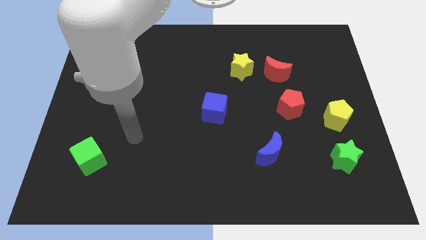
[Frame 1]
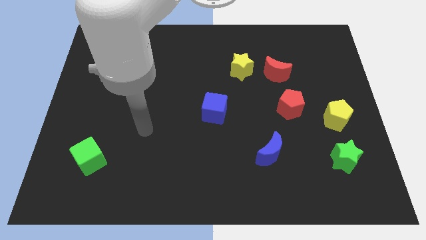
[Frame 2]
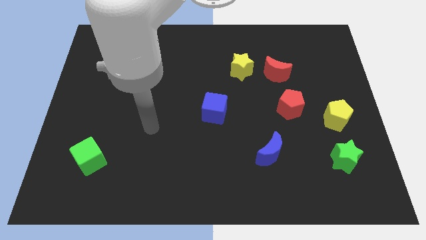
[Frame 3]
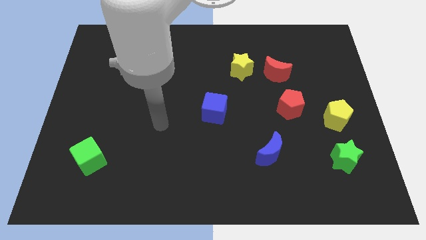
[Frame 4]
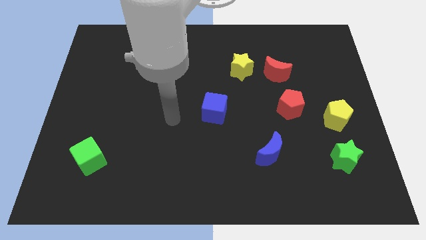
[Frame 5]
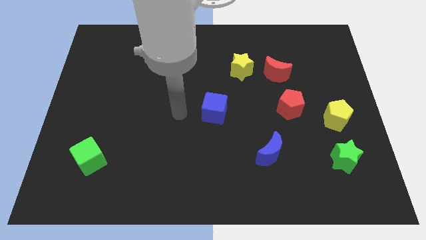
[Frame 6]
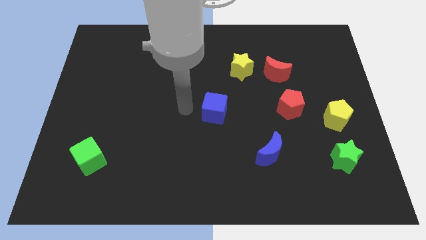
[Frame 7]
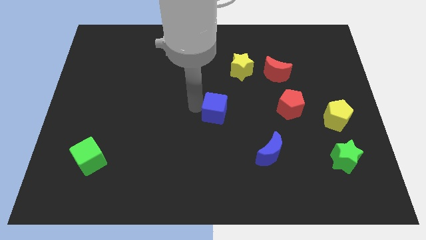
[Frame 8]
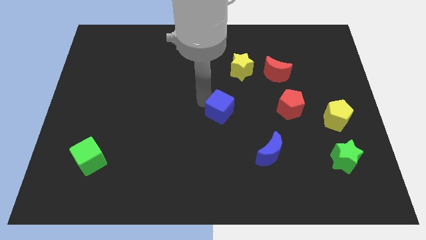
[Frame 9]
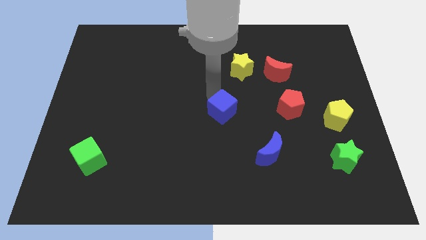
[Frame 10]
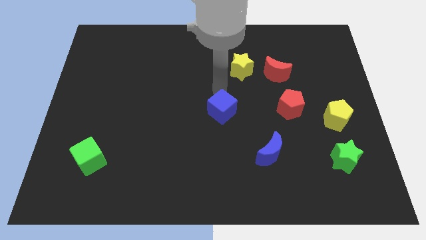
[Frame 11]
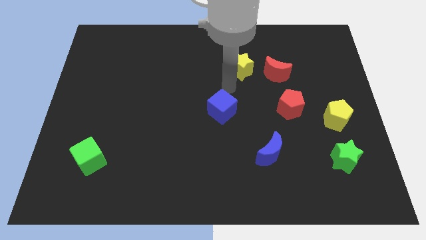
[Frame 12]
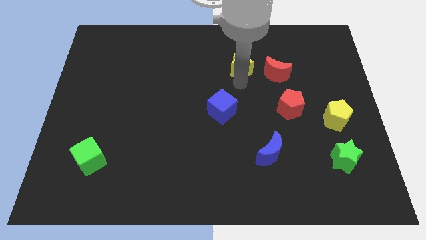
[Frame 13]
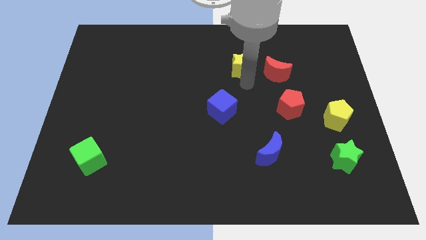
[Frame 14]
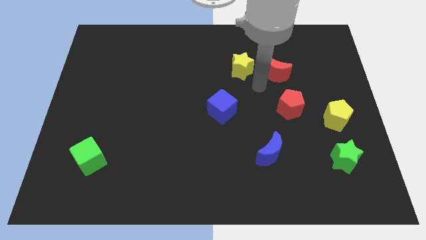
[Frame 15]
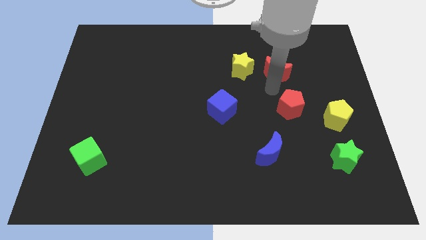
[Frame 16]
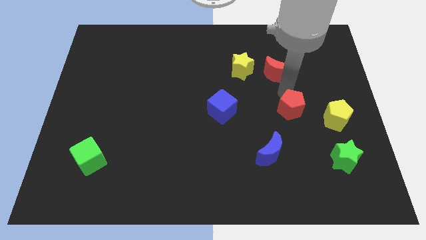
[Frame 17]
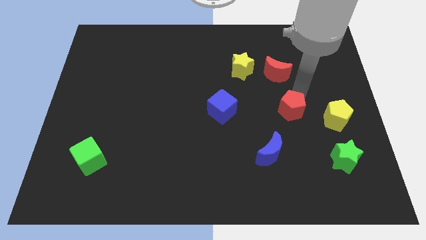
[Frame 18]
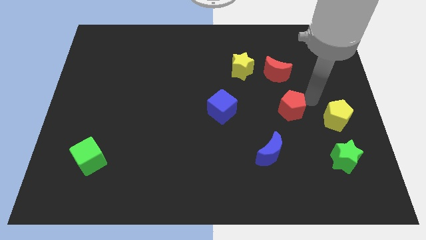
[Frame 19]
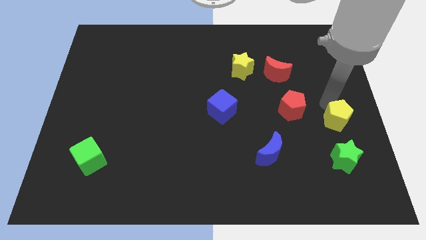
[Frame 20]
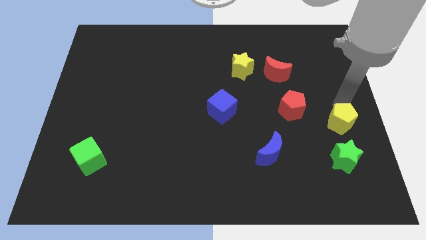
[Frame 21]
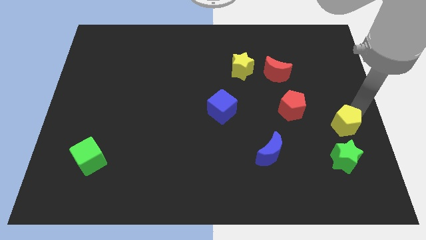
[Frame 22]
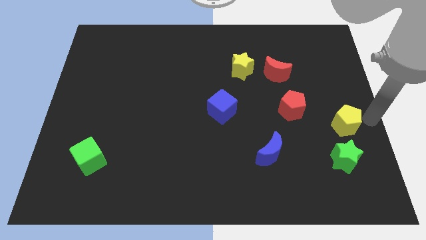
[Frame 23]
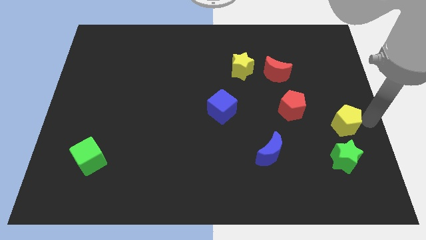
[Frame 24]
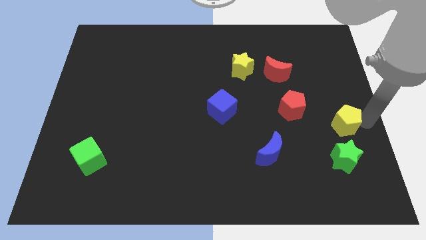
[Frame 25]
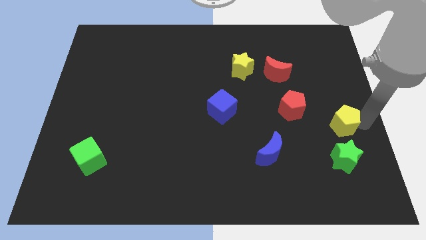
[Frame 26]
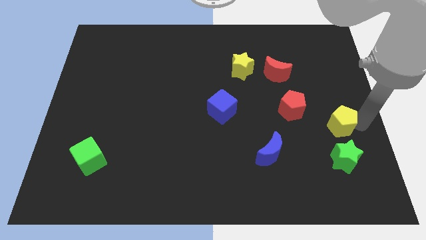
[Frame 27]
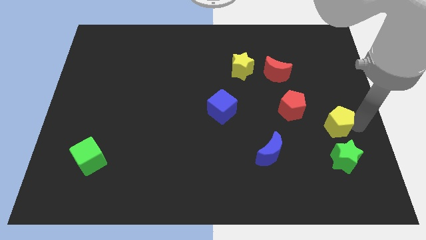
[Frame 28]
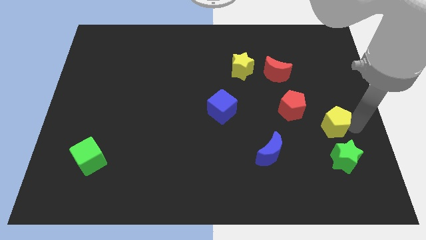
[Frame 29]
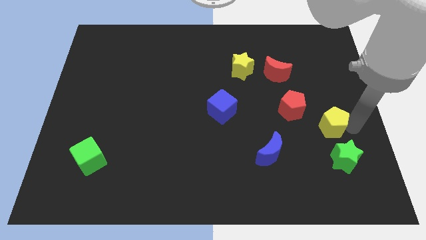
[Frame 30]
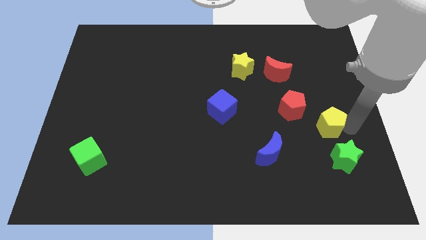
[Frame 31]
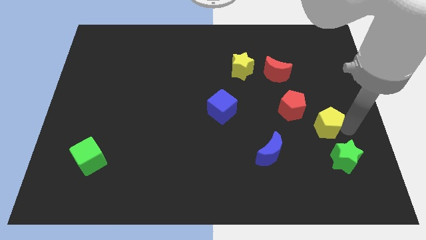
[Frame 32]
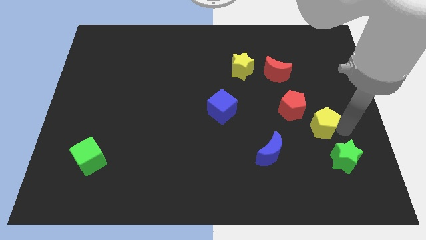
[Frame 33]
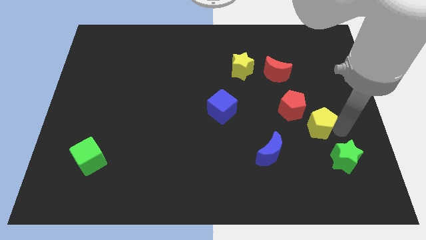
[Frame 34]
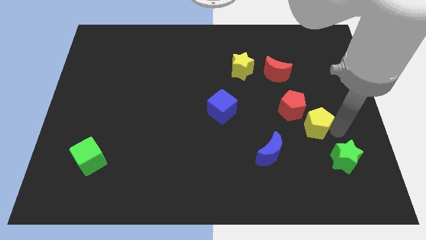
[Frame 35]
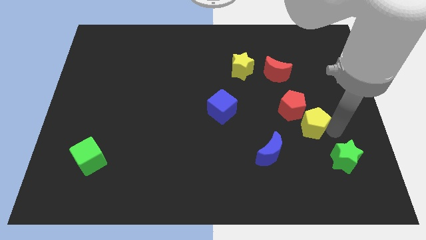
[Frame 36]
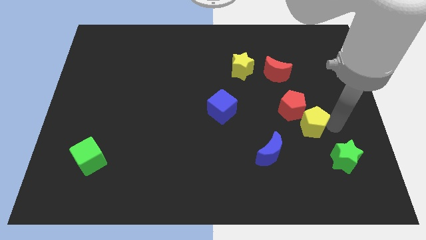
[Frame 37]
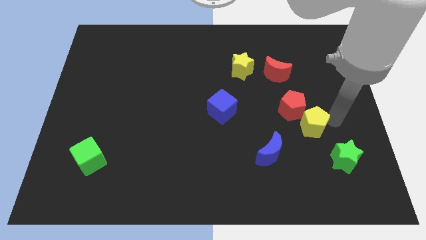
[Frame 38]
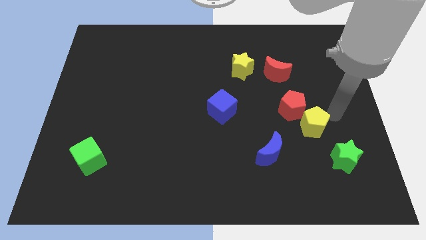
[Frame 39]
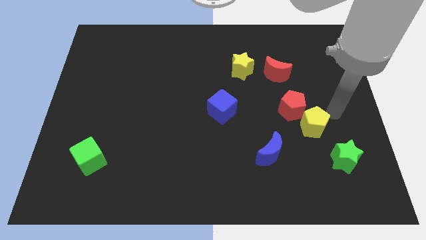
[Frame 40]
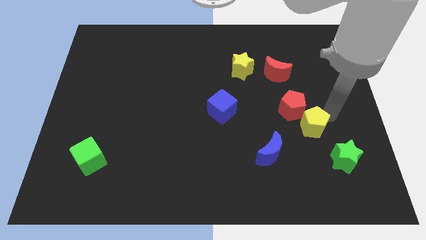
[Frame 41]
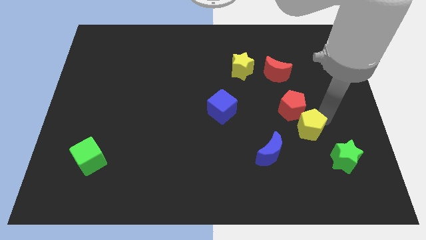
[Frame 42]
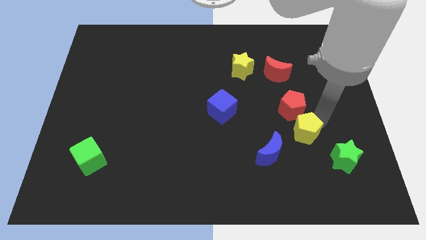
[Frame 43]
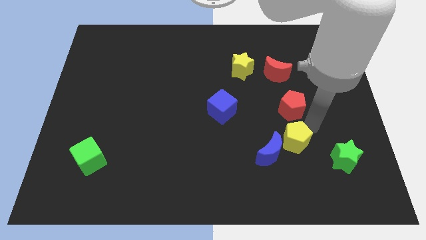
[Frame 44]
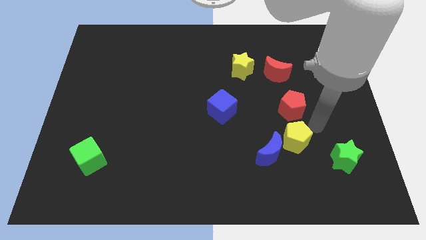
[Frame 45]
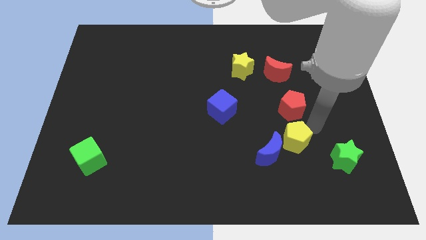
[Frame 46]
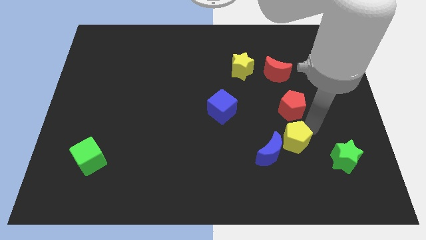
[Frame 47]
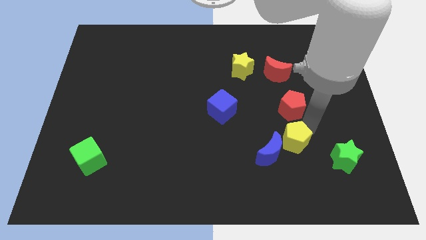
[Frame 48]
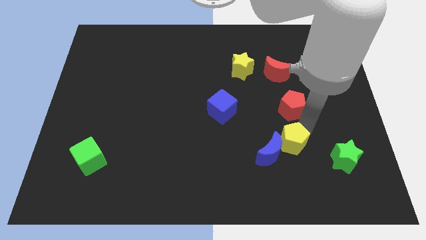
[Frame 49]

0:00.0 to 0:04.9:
put the yellow pentagon close to the blue moon

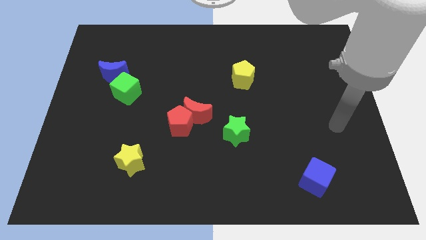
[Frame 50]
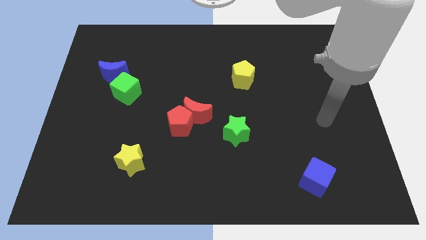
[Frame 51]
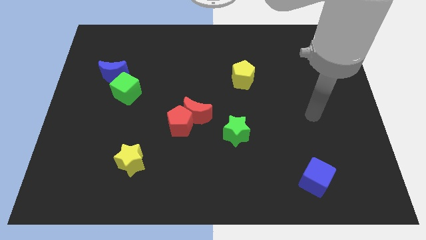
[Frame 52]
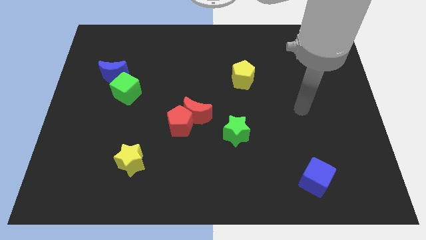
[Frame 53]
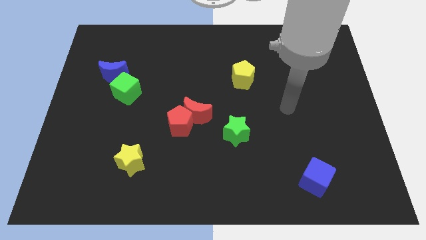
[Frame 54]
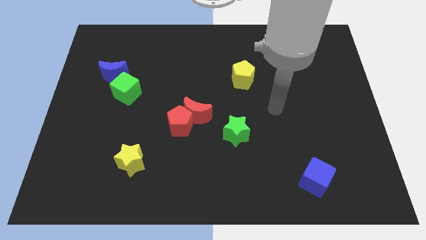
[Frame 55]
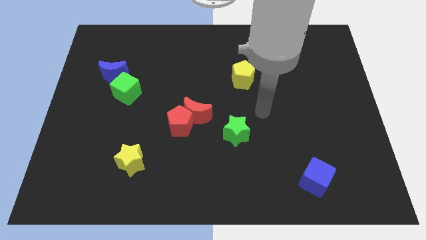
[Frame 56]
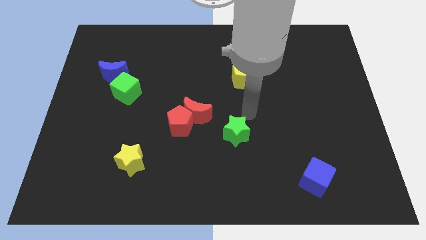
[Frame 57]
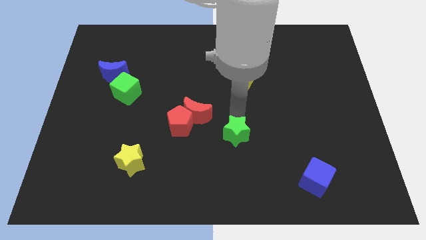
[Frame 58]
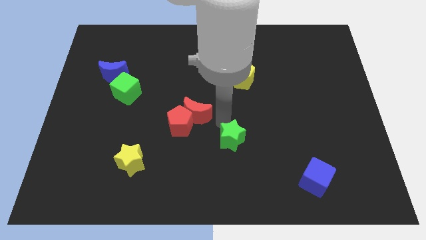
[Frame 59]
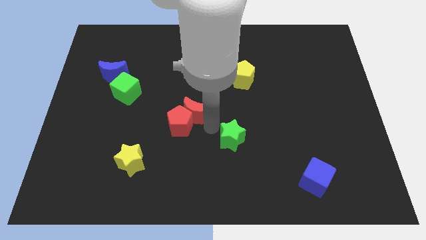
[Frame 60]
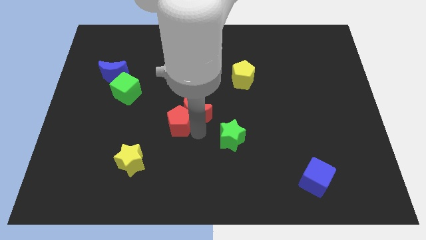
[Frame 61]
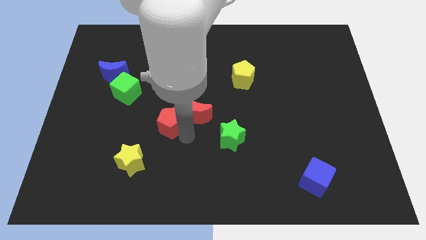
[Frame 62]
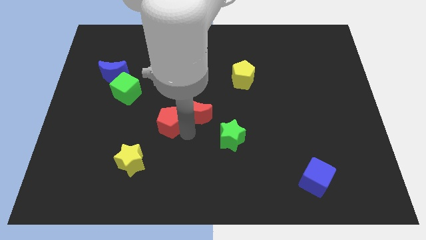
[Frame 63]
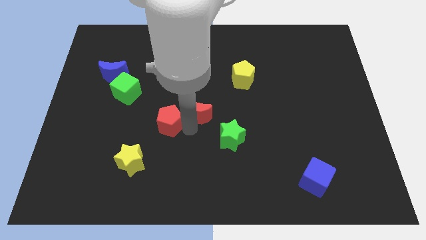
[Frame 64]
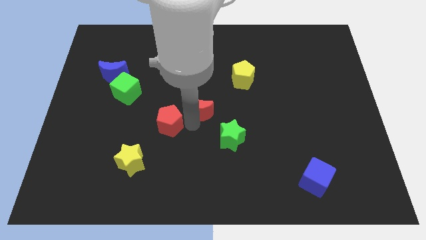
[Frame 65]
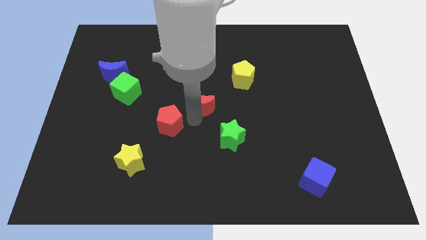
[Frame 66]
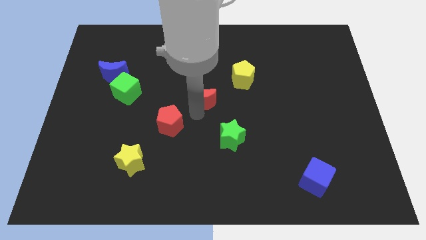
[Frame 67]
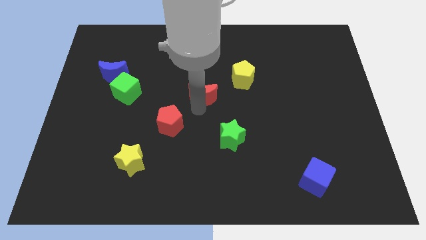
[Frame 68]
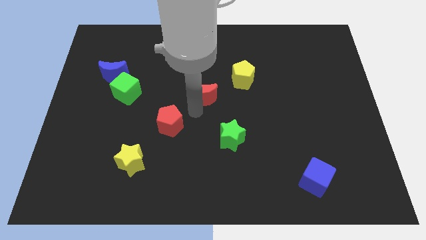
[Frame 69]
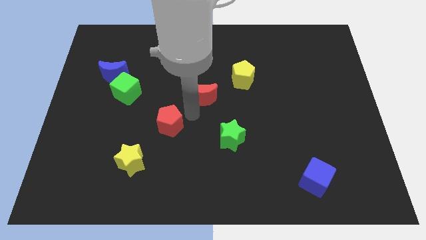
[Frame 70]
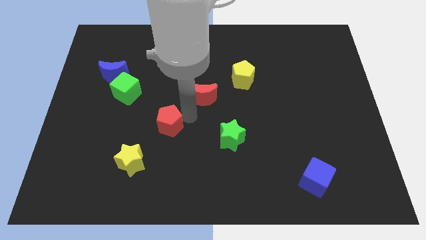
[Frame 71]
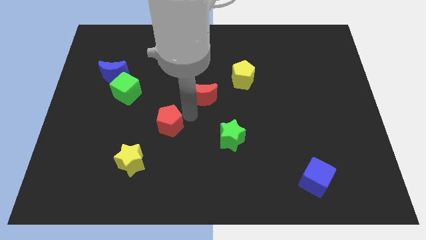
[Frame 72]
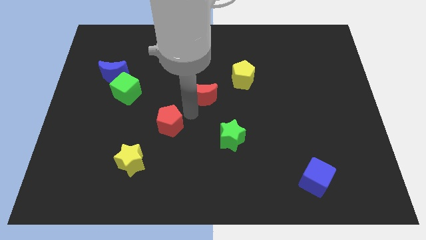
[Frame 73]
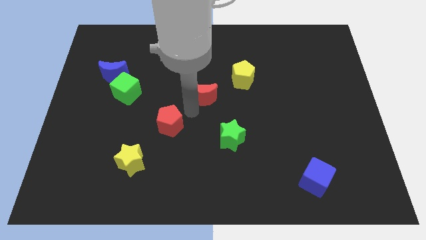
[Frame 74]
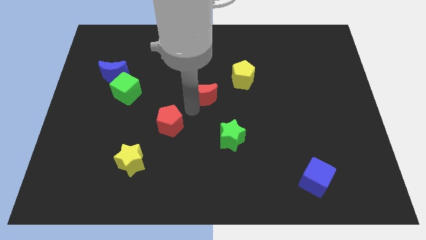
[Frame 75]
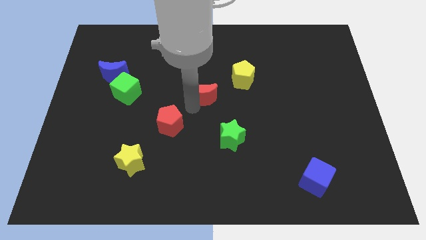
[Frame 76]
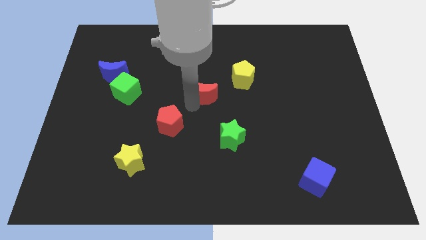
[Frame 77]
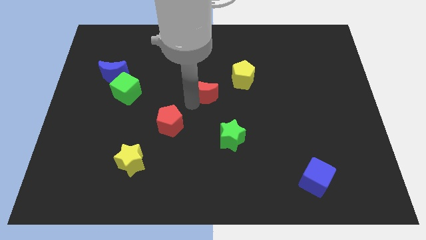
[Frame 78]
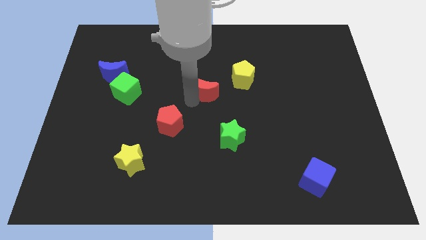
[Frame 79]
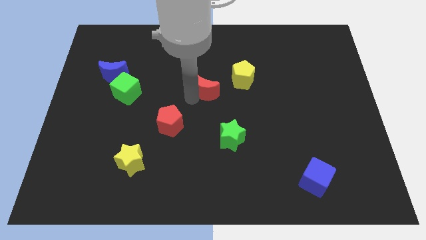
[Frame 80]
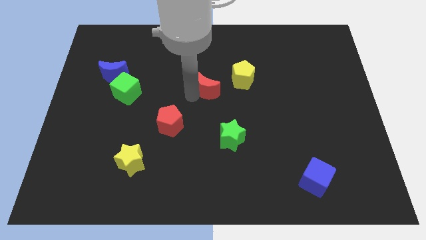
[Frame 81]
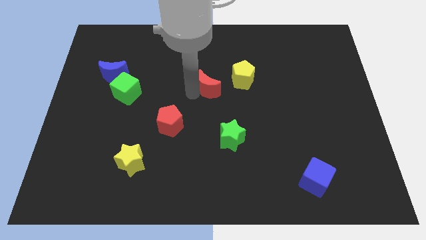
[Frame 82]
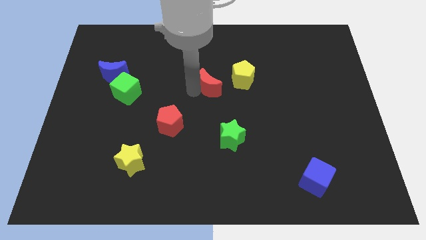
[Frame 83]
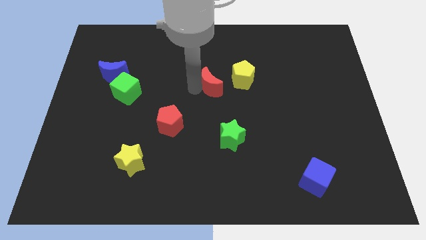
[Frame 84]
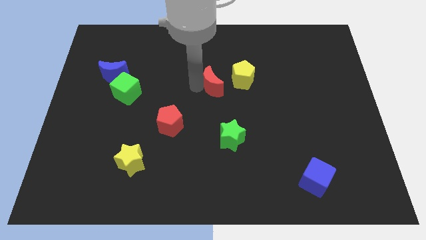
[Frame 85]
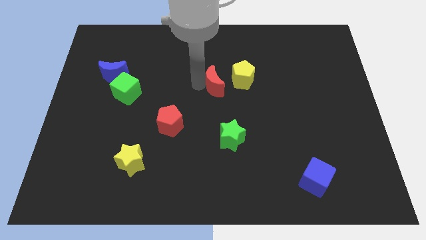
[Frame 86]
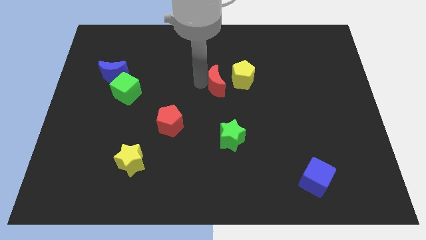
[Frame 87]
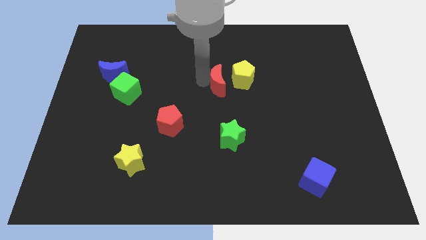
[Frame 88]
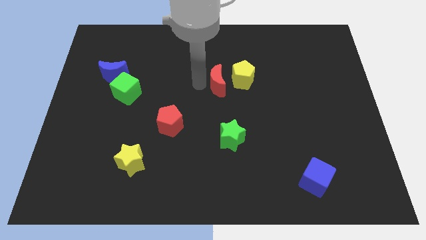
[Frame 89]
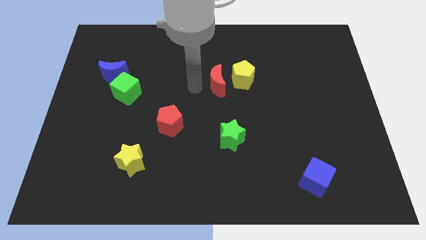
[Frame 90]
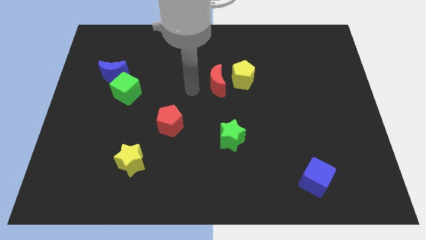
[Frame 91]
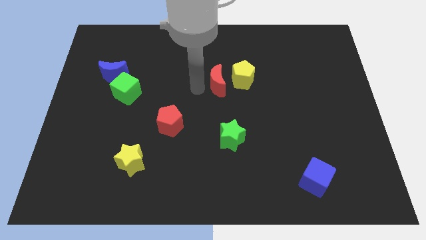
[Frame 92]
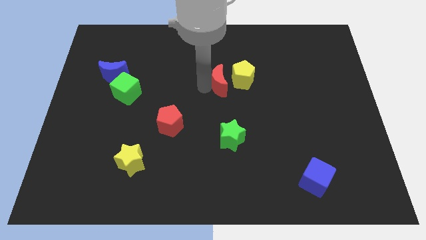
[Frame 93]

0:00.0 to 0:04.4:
push the red moon to the yellow pentagon
